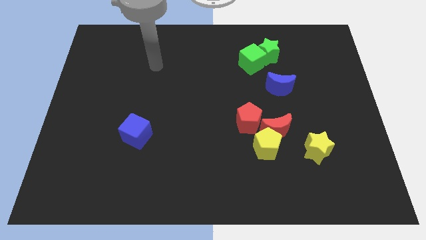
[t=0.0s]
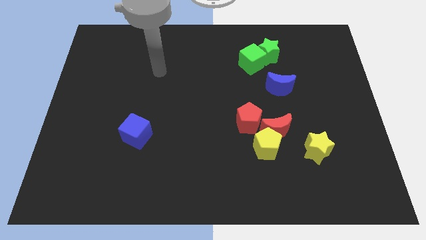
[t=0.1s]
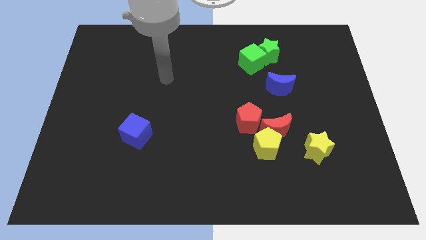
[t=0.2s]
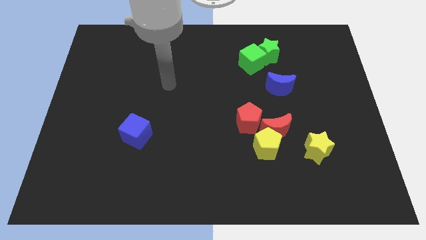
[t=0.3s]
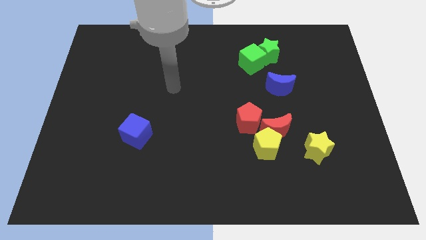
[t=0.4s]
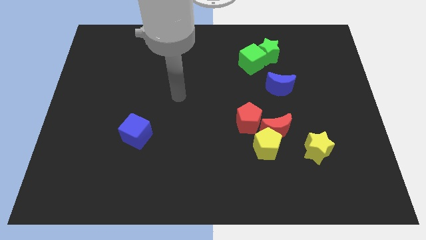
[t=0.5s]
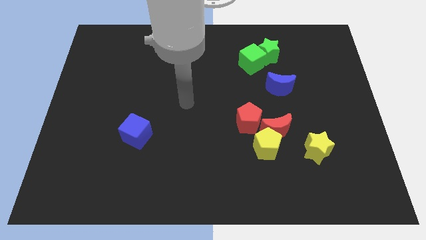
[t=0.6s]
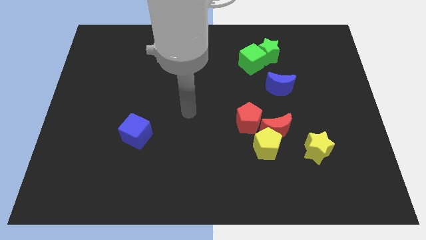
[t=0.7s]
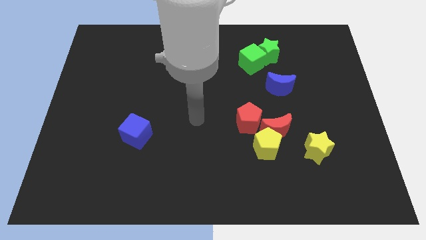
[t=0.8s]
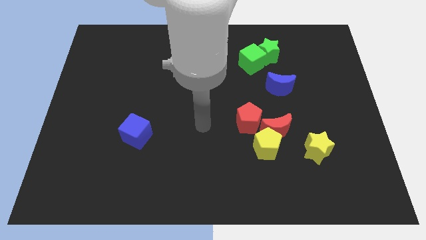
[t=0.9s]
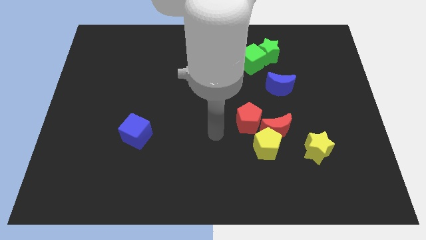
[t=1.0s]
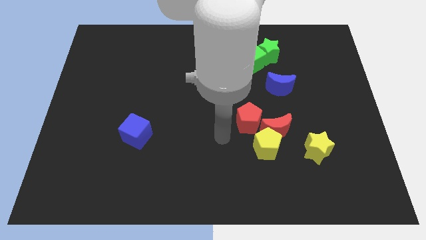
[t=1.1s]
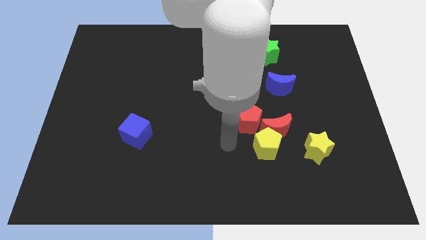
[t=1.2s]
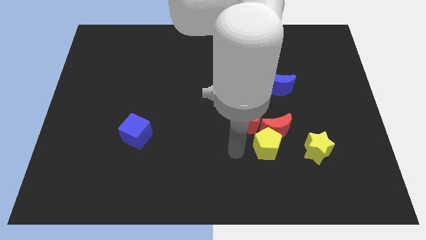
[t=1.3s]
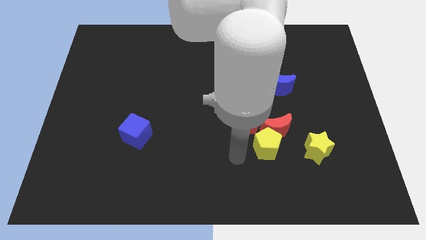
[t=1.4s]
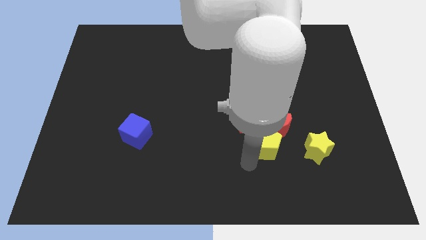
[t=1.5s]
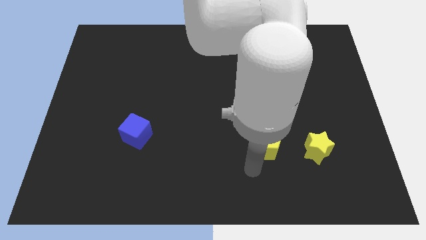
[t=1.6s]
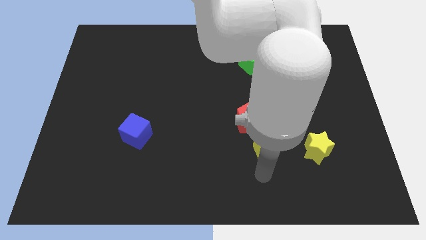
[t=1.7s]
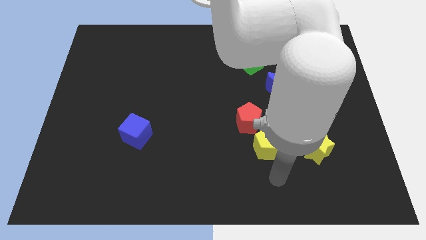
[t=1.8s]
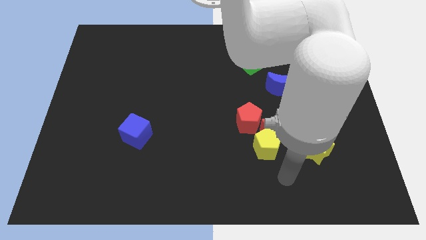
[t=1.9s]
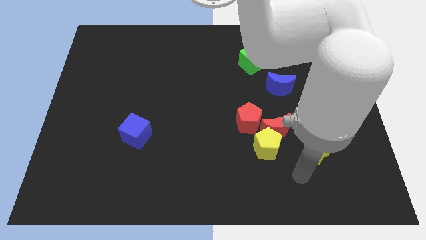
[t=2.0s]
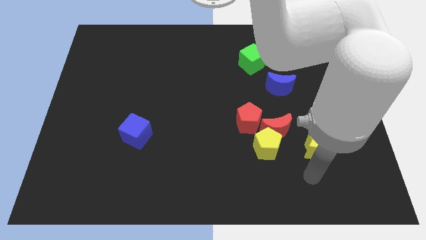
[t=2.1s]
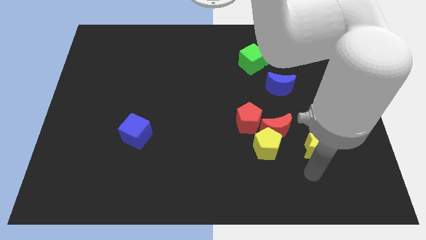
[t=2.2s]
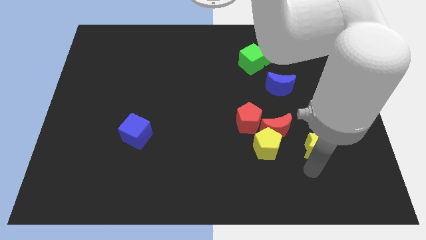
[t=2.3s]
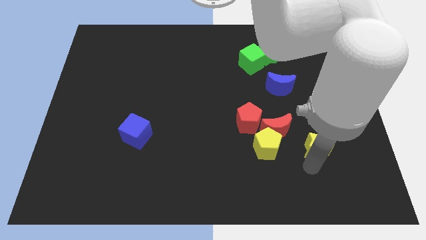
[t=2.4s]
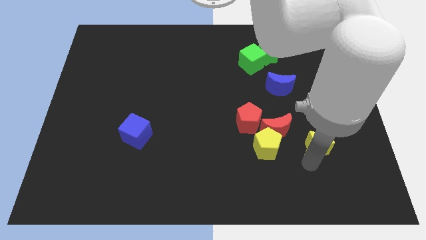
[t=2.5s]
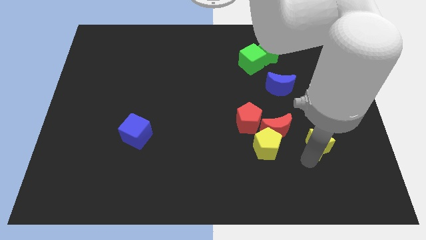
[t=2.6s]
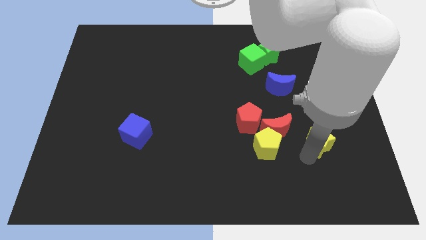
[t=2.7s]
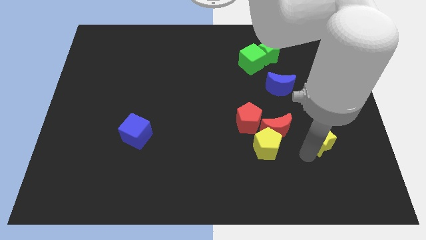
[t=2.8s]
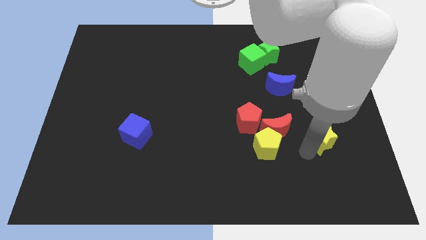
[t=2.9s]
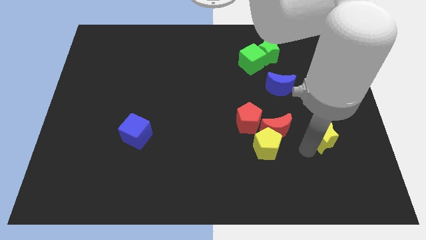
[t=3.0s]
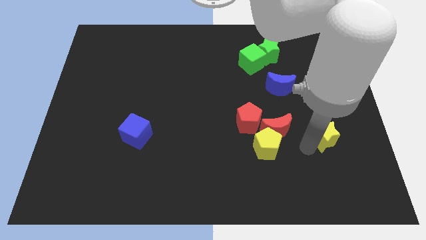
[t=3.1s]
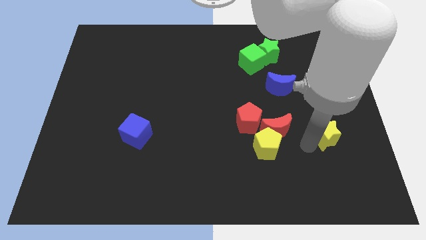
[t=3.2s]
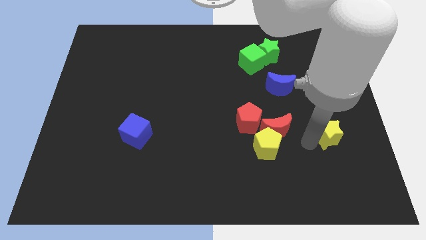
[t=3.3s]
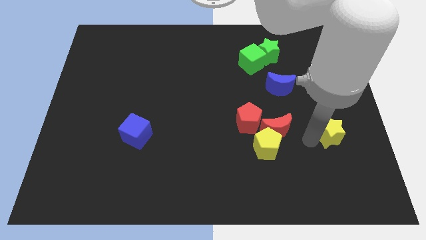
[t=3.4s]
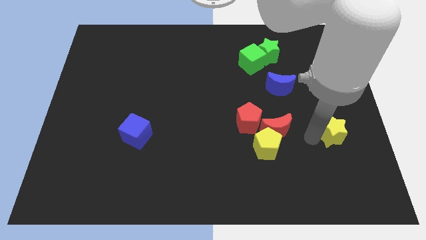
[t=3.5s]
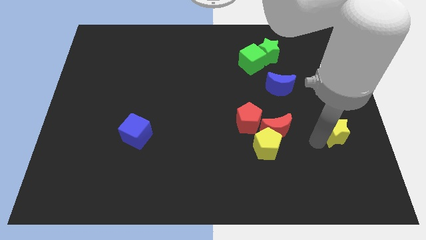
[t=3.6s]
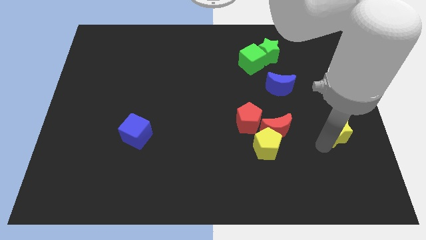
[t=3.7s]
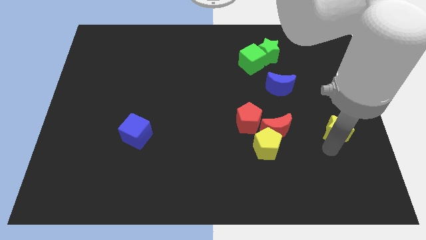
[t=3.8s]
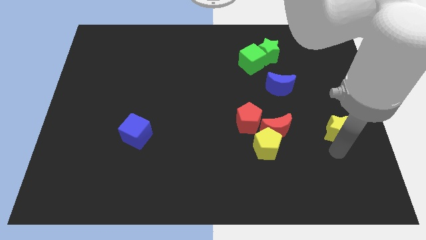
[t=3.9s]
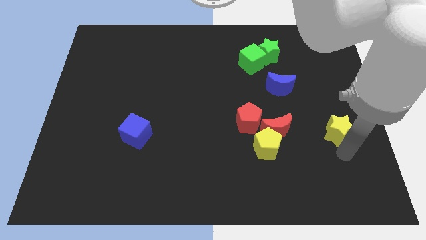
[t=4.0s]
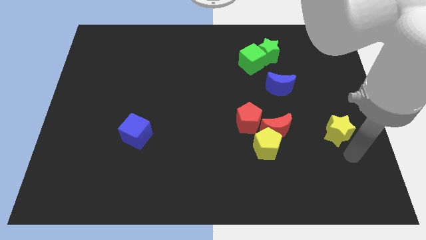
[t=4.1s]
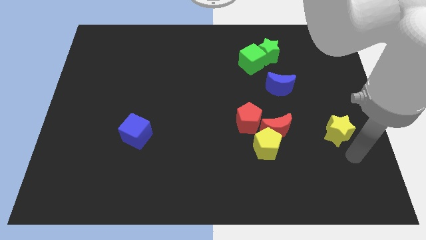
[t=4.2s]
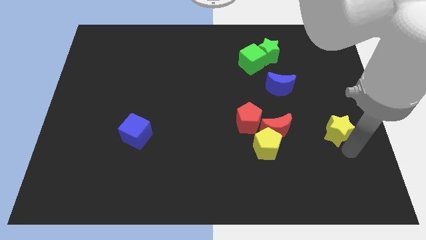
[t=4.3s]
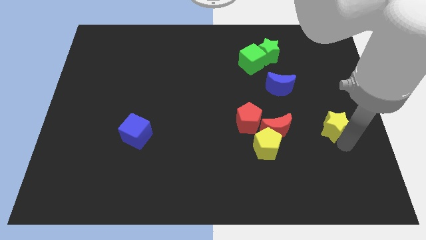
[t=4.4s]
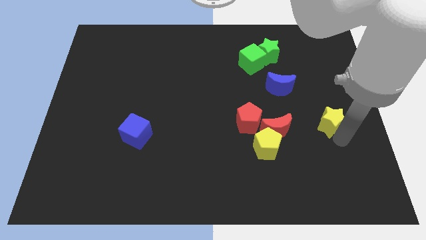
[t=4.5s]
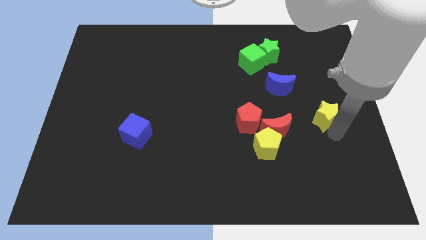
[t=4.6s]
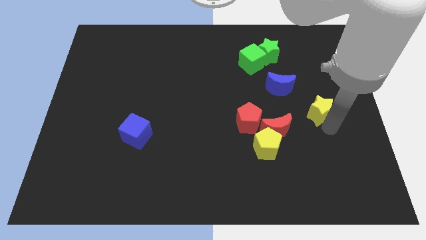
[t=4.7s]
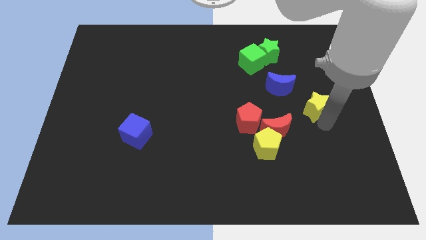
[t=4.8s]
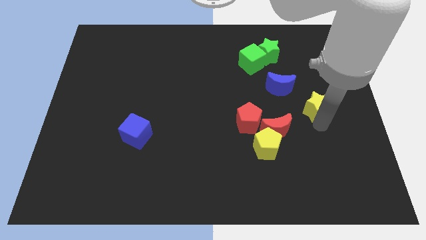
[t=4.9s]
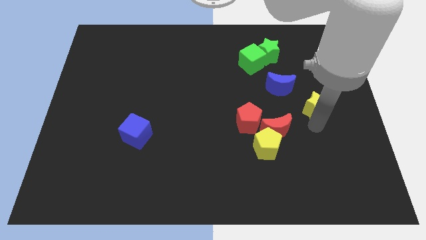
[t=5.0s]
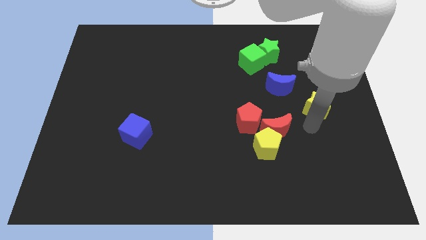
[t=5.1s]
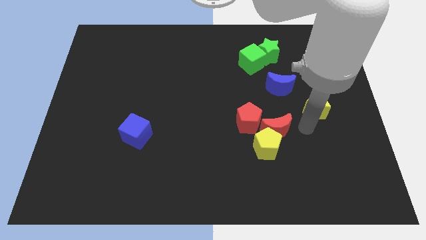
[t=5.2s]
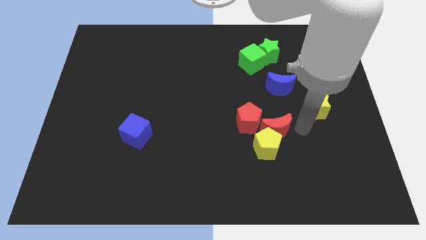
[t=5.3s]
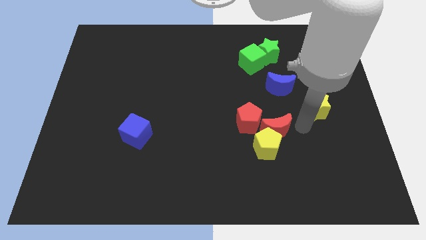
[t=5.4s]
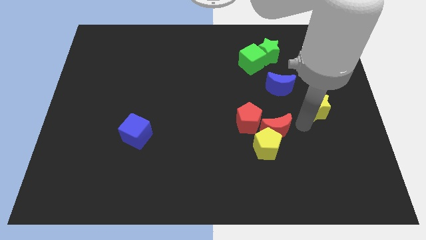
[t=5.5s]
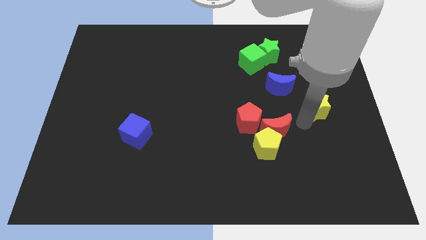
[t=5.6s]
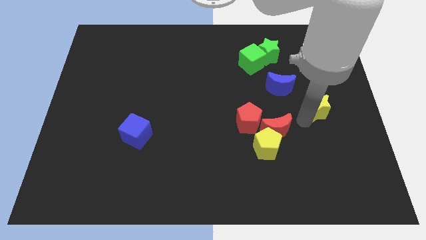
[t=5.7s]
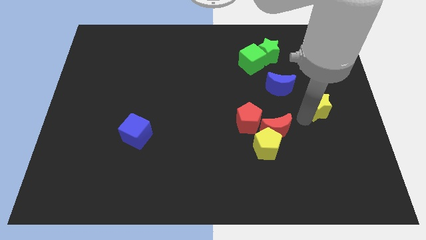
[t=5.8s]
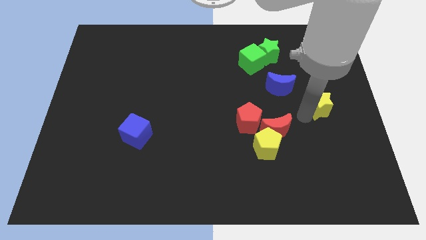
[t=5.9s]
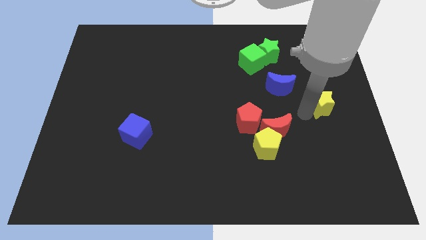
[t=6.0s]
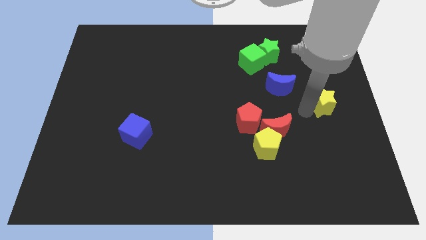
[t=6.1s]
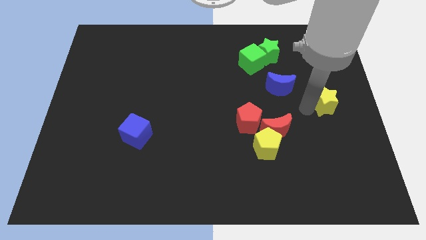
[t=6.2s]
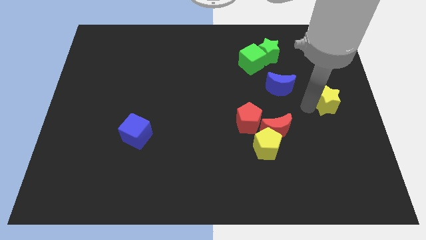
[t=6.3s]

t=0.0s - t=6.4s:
put the yellow star to the right side of the blue moon

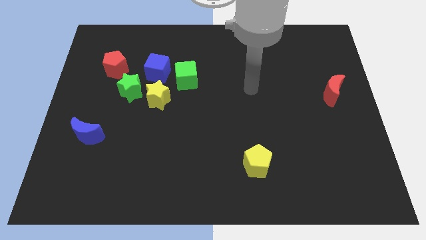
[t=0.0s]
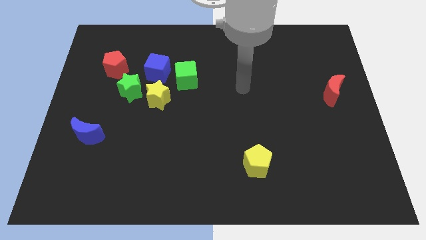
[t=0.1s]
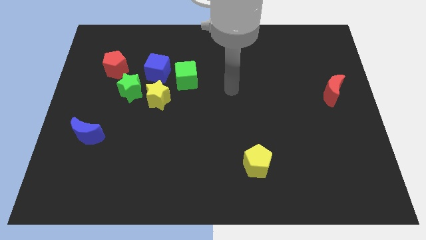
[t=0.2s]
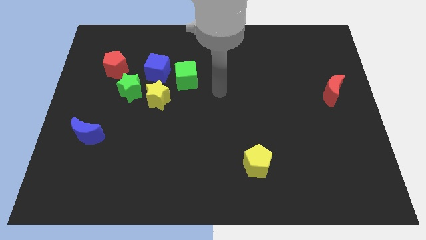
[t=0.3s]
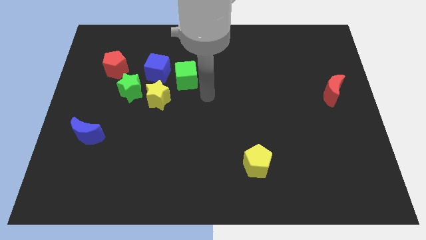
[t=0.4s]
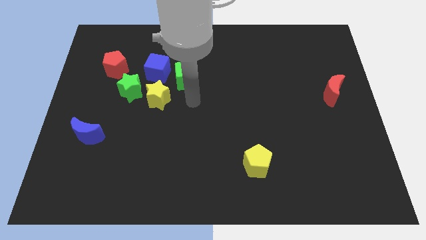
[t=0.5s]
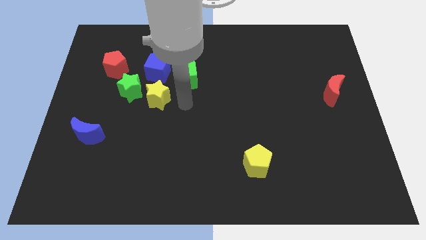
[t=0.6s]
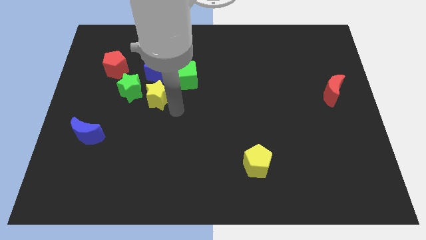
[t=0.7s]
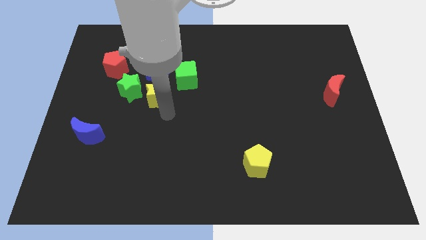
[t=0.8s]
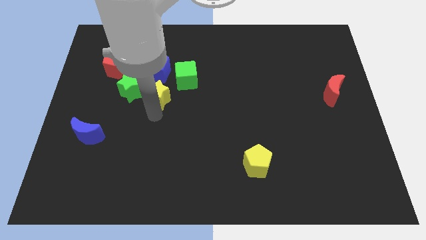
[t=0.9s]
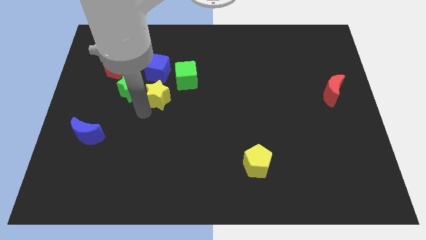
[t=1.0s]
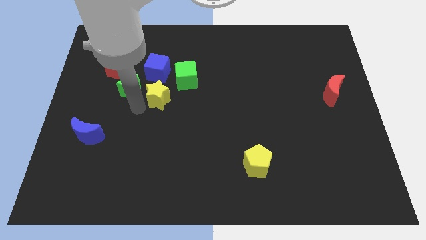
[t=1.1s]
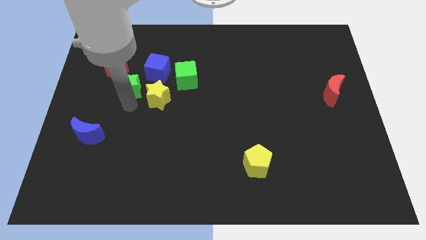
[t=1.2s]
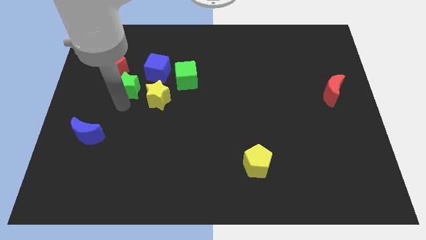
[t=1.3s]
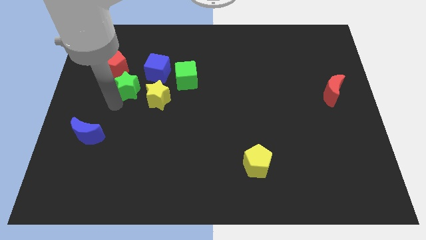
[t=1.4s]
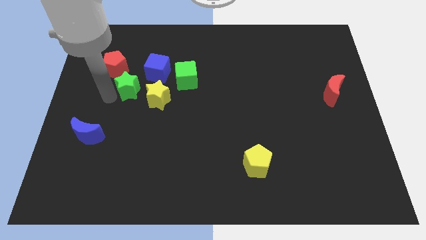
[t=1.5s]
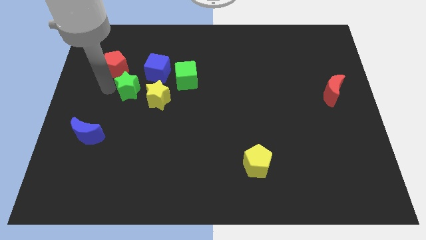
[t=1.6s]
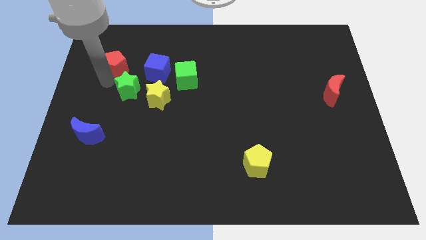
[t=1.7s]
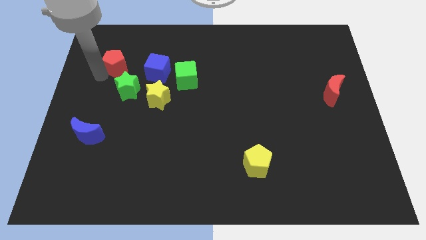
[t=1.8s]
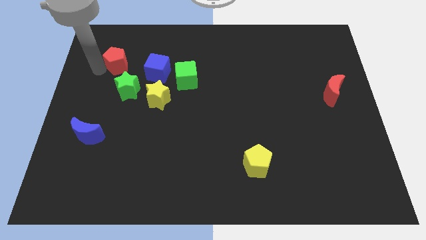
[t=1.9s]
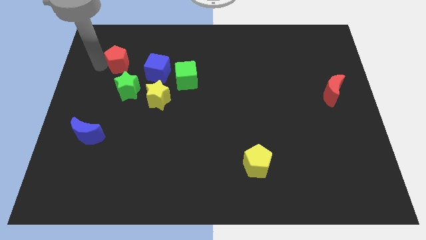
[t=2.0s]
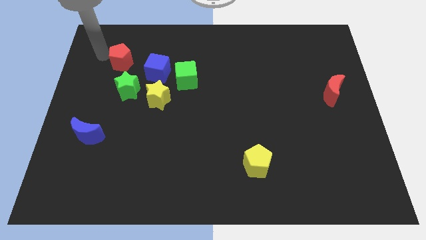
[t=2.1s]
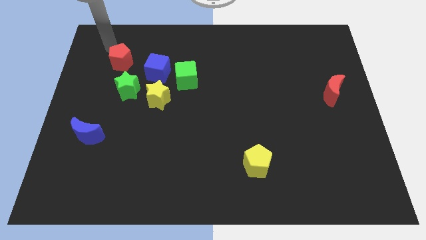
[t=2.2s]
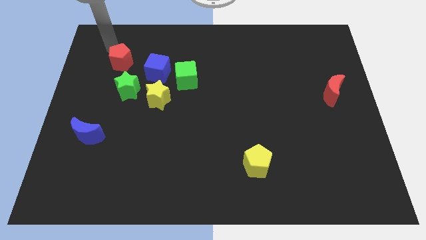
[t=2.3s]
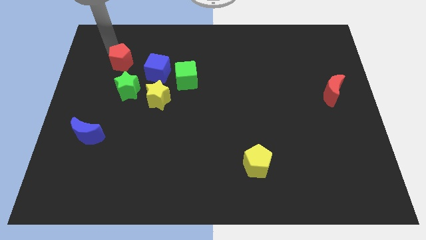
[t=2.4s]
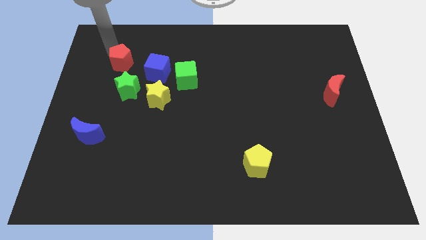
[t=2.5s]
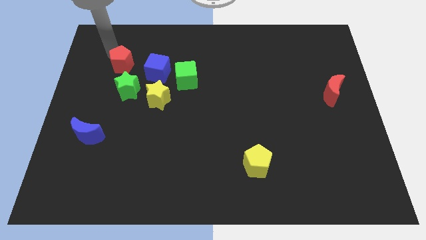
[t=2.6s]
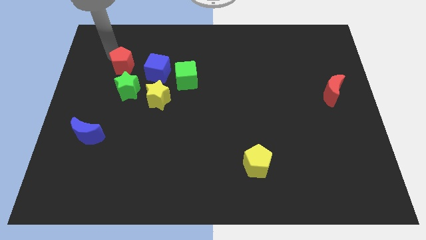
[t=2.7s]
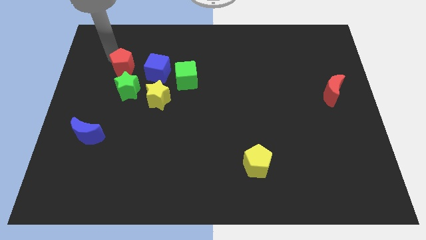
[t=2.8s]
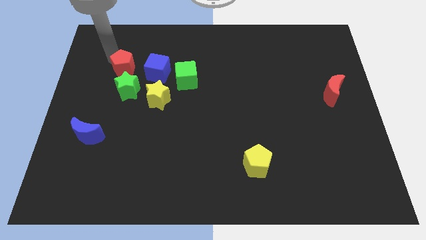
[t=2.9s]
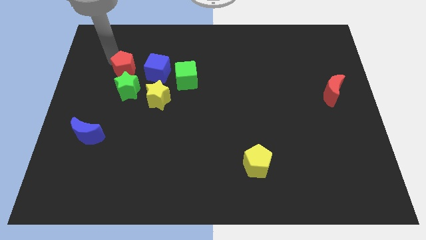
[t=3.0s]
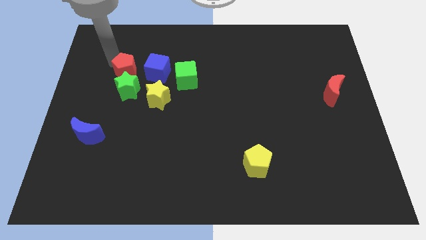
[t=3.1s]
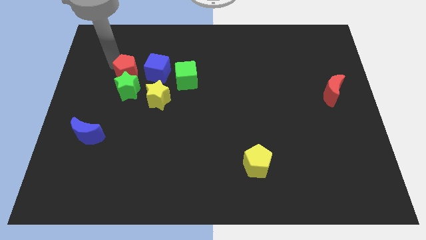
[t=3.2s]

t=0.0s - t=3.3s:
slide the red pentagon left of the green cube
